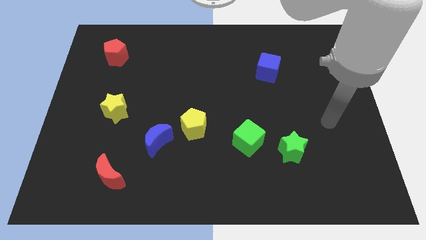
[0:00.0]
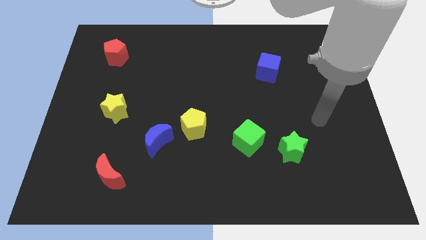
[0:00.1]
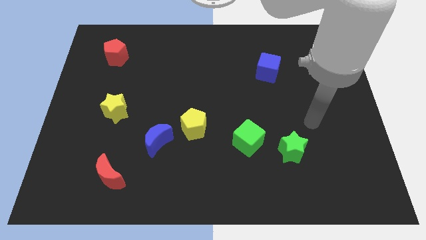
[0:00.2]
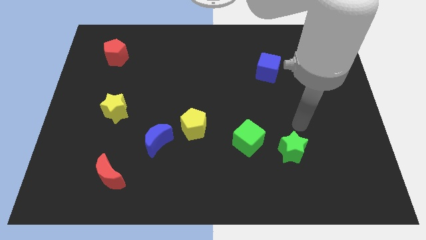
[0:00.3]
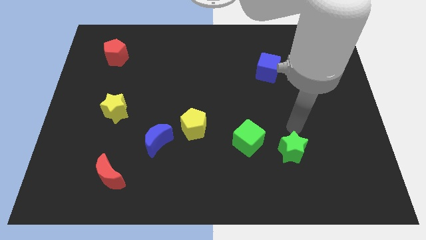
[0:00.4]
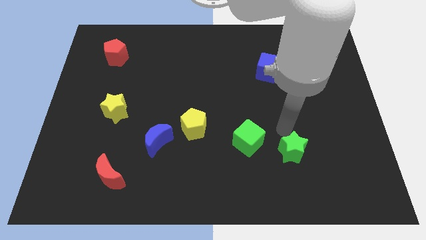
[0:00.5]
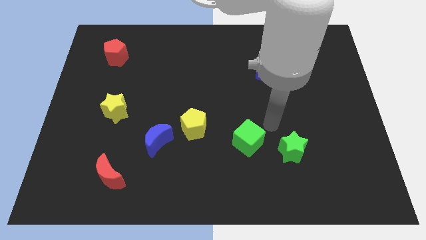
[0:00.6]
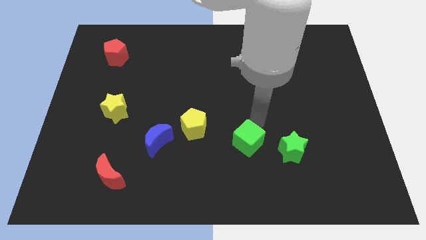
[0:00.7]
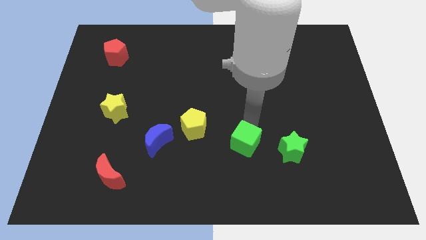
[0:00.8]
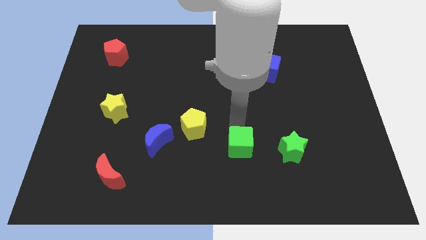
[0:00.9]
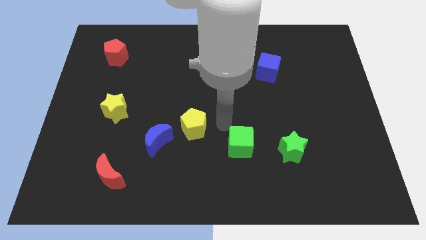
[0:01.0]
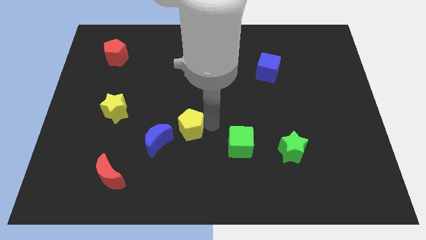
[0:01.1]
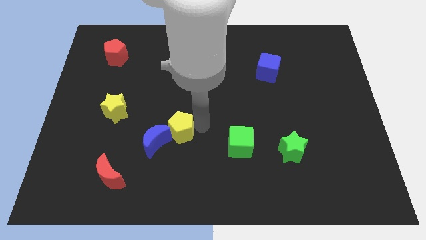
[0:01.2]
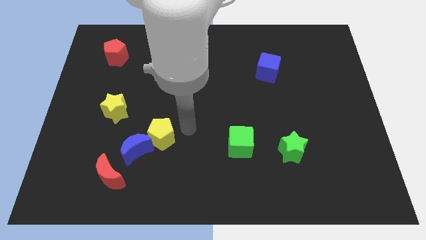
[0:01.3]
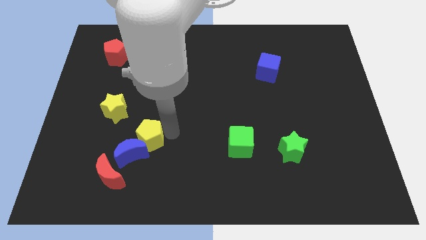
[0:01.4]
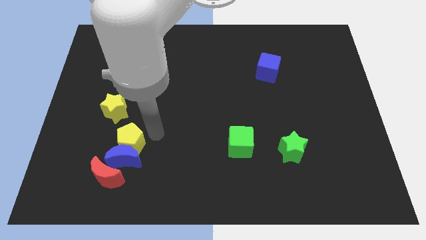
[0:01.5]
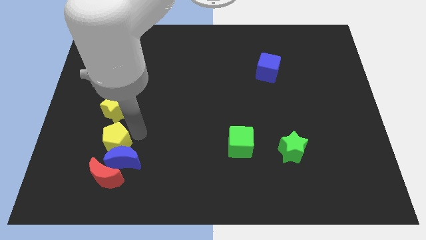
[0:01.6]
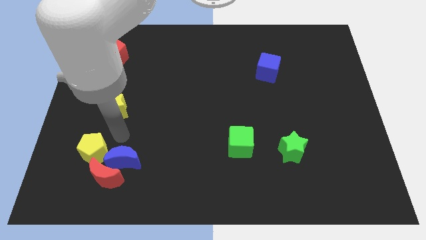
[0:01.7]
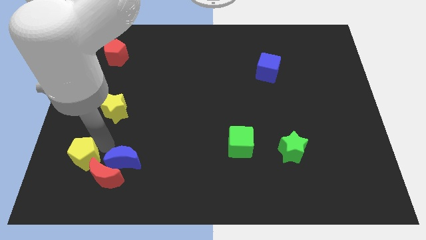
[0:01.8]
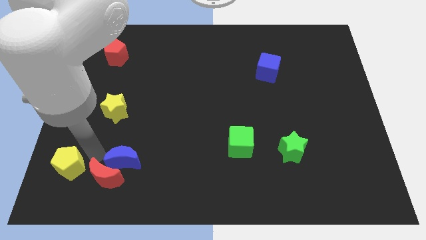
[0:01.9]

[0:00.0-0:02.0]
move the blue moon away from the yellow pentagon

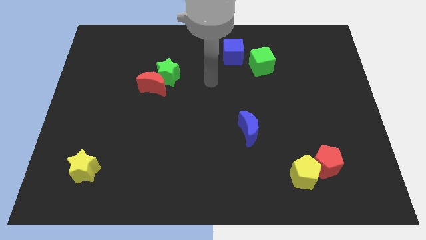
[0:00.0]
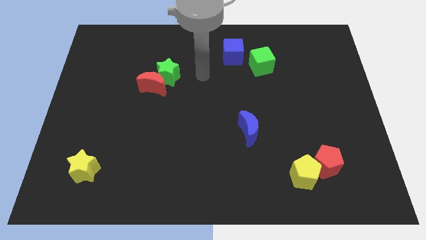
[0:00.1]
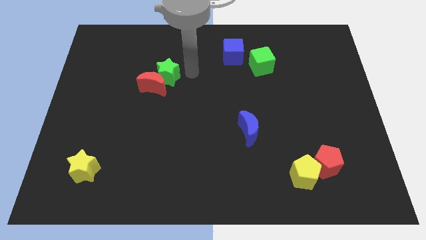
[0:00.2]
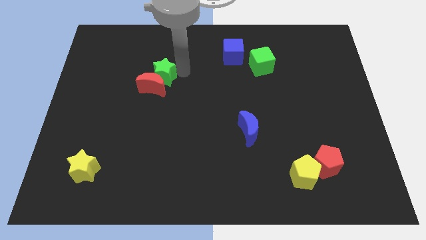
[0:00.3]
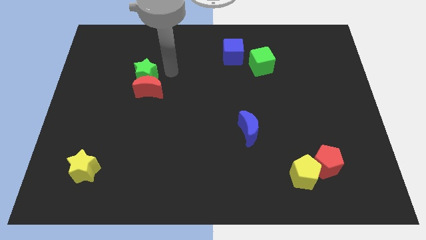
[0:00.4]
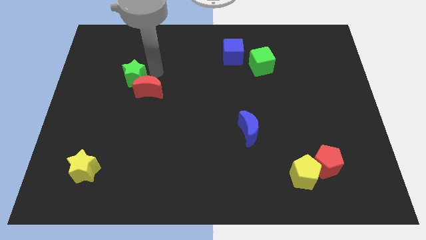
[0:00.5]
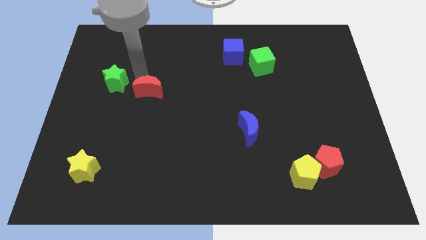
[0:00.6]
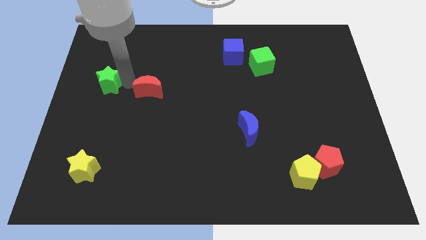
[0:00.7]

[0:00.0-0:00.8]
move the red moon away from the green star

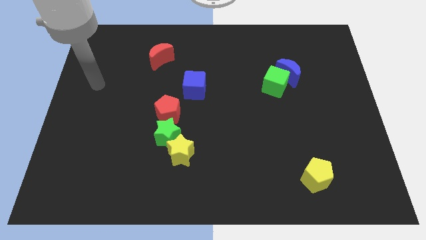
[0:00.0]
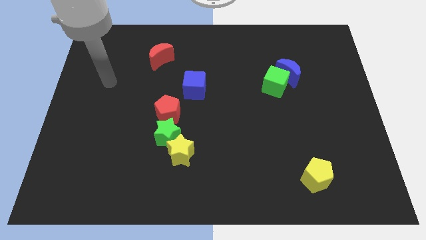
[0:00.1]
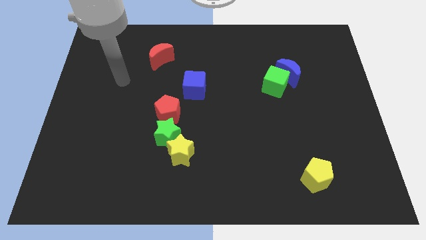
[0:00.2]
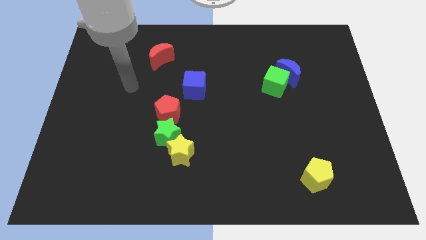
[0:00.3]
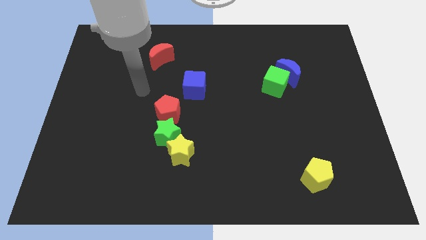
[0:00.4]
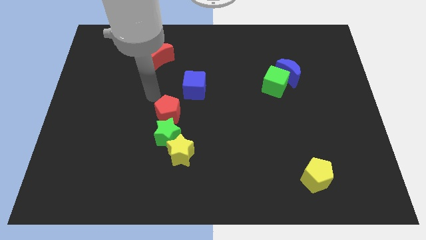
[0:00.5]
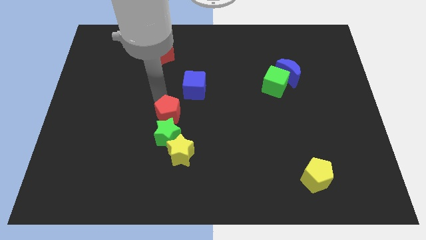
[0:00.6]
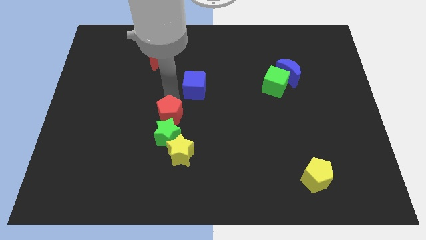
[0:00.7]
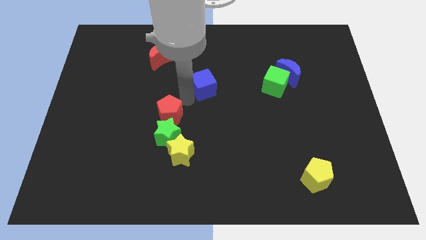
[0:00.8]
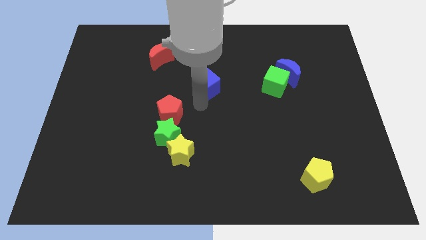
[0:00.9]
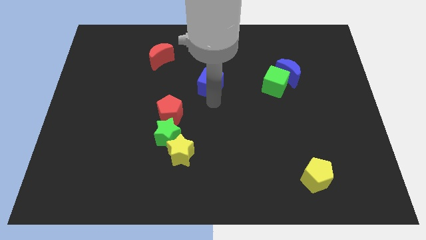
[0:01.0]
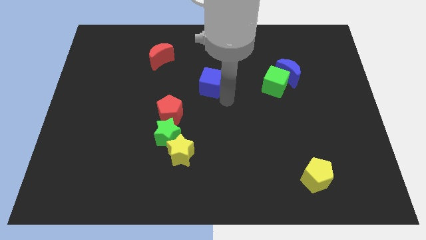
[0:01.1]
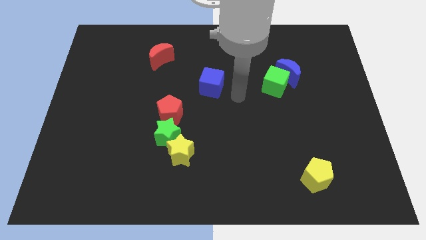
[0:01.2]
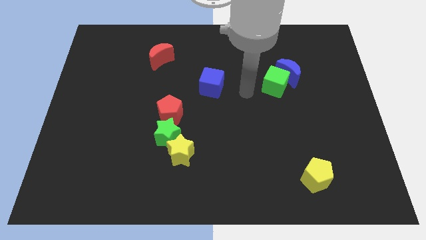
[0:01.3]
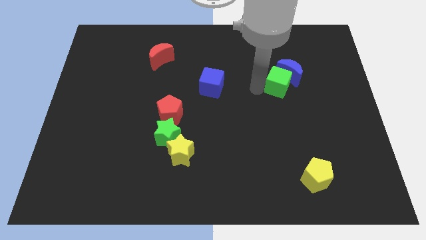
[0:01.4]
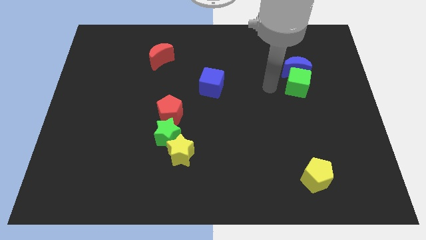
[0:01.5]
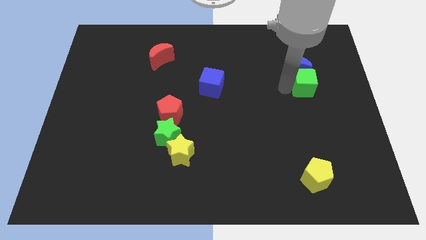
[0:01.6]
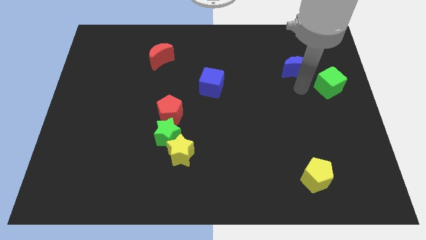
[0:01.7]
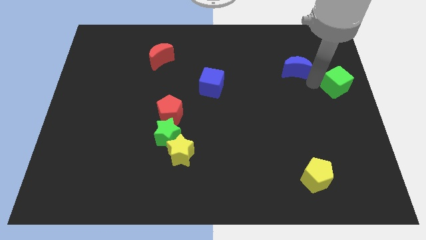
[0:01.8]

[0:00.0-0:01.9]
pull the blue moon apart from the green cube

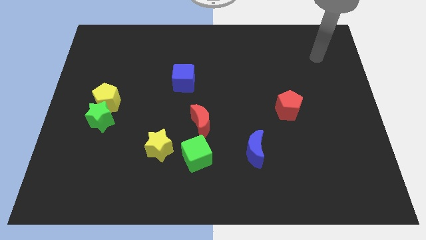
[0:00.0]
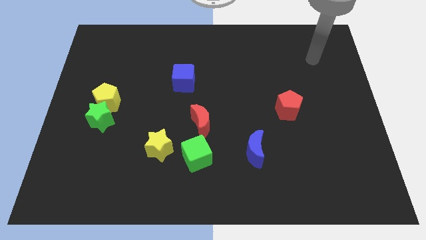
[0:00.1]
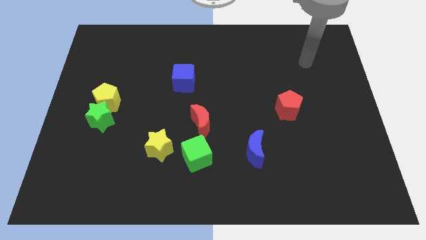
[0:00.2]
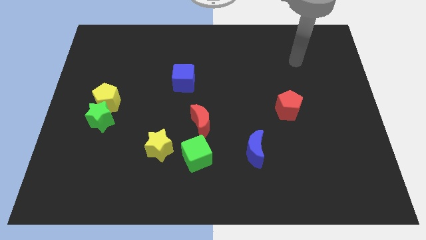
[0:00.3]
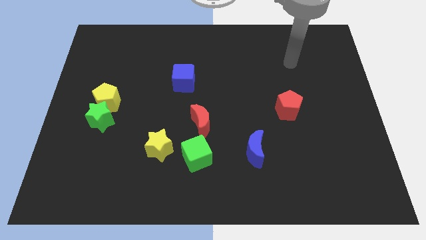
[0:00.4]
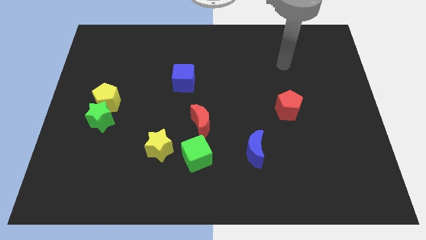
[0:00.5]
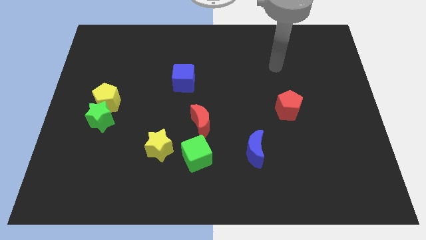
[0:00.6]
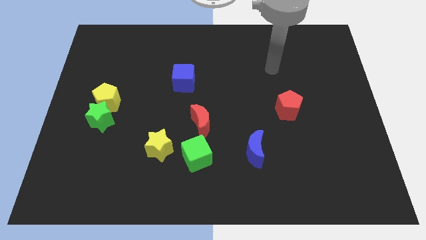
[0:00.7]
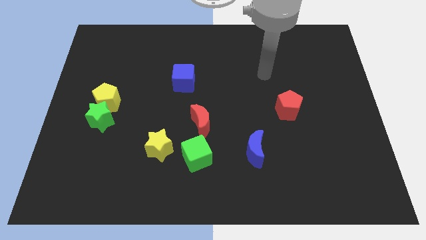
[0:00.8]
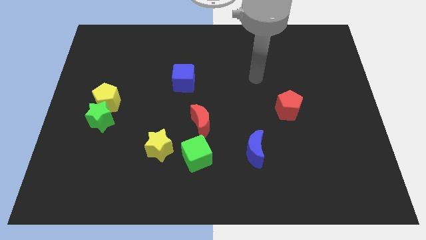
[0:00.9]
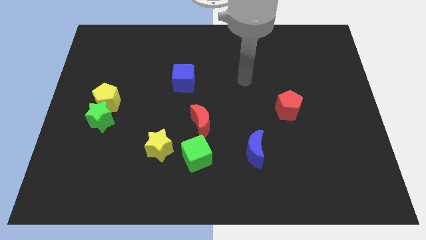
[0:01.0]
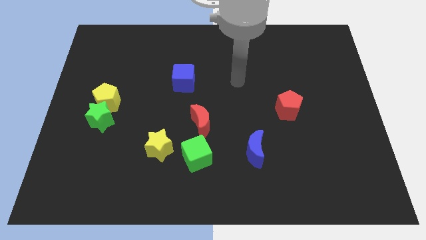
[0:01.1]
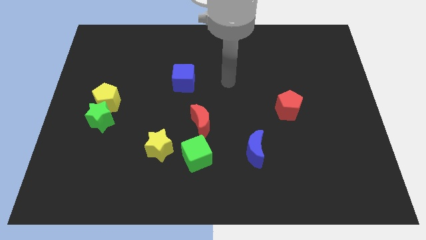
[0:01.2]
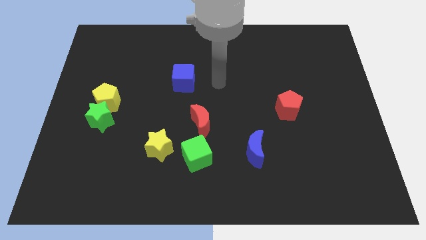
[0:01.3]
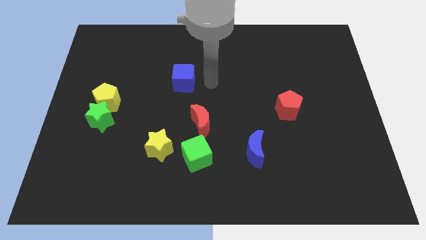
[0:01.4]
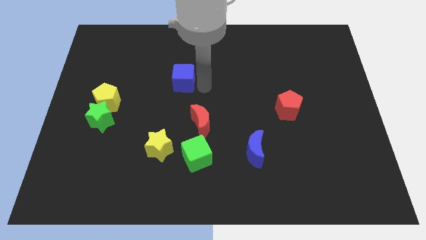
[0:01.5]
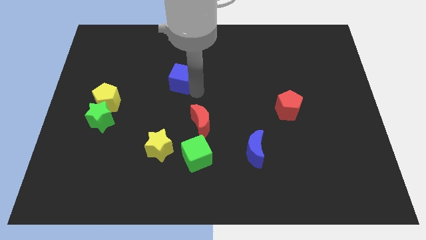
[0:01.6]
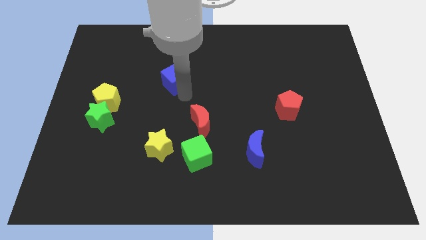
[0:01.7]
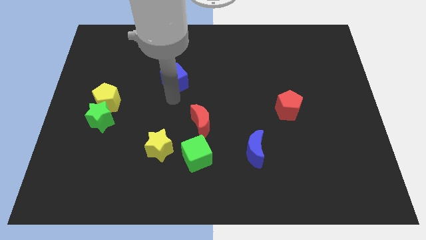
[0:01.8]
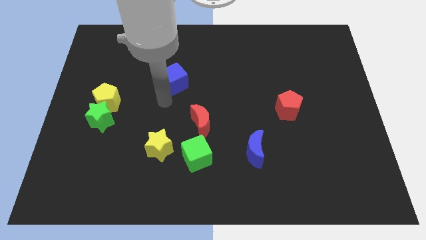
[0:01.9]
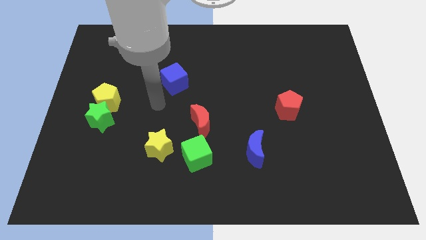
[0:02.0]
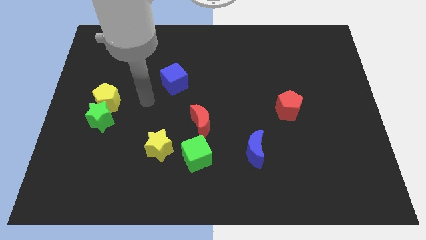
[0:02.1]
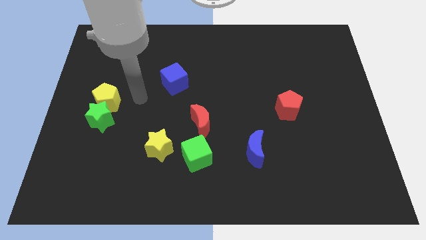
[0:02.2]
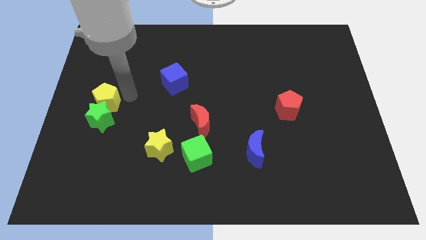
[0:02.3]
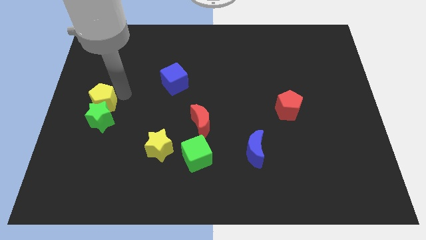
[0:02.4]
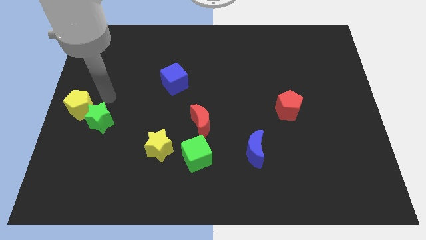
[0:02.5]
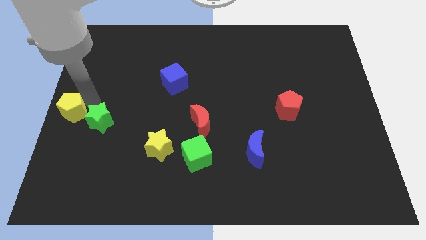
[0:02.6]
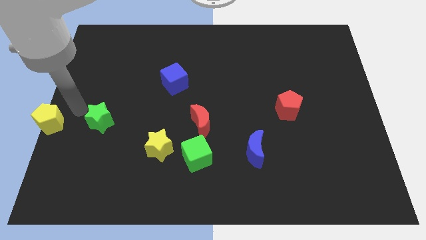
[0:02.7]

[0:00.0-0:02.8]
pull the green star apart from the yellow pentagon

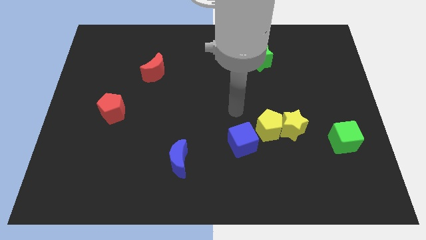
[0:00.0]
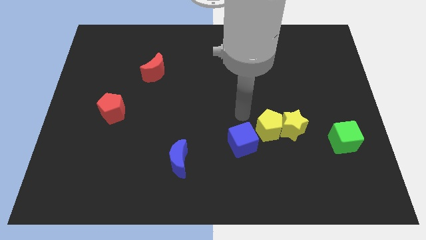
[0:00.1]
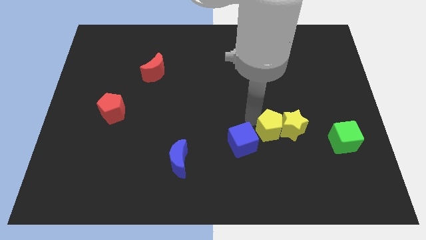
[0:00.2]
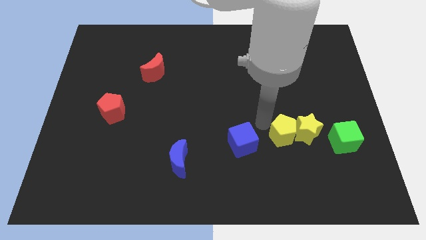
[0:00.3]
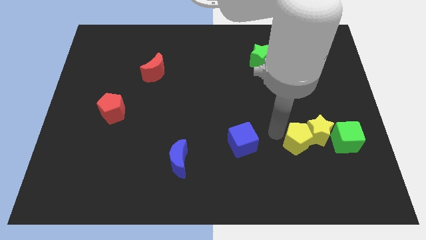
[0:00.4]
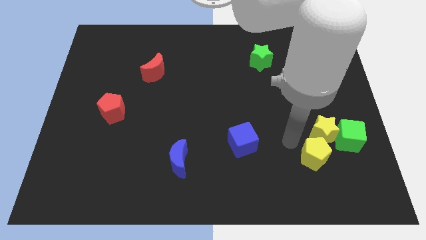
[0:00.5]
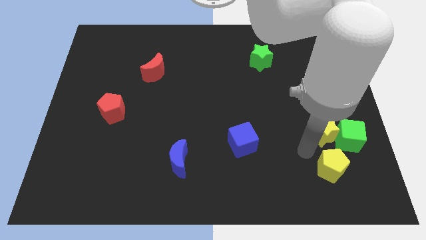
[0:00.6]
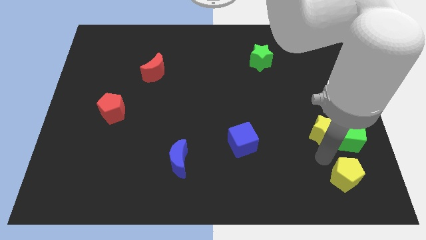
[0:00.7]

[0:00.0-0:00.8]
pull the yellow star apart from the yellow pentagon

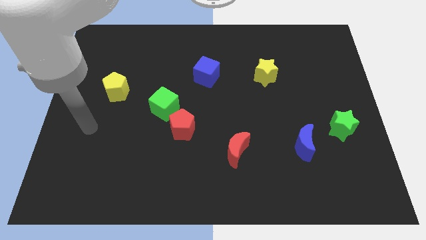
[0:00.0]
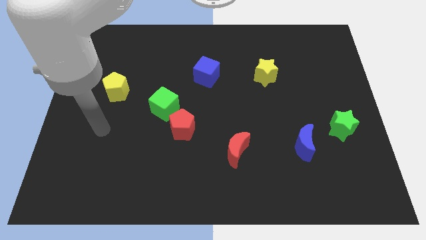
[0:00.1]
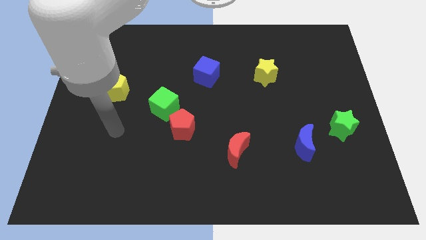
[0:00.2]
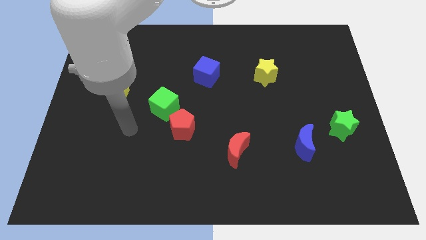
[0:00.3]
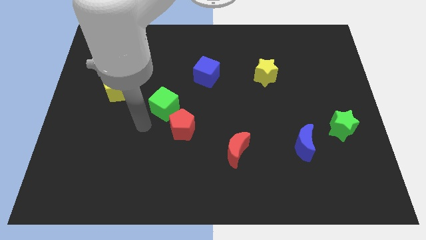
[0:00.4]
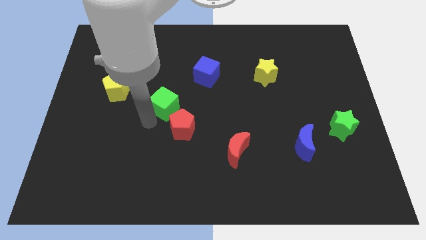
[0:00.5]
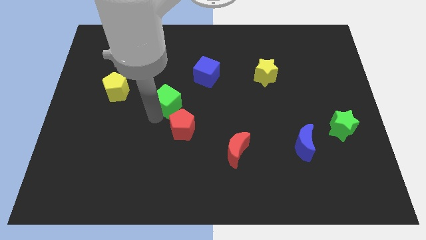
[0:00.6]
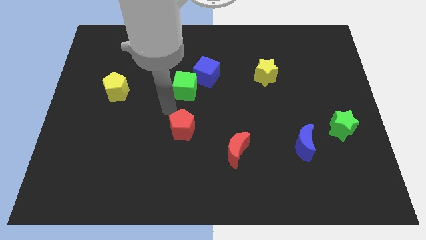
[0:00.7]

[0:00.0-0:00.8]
move the red pentagon away from the green cube
